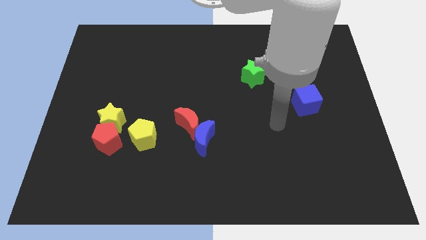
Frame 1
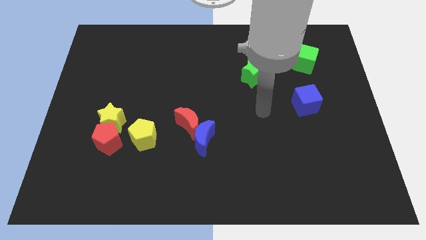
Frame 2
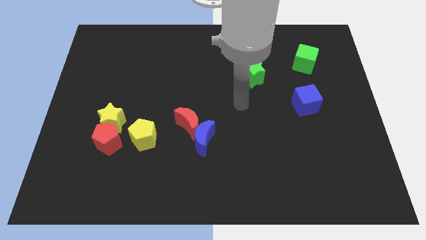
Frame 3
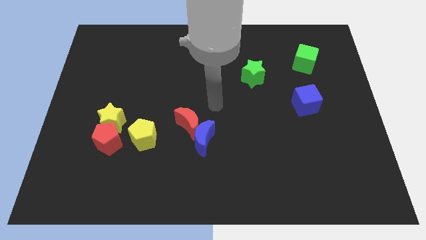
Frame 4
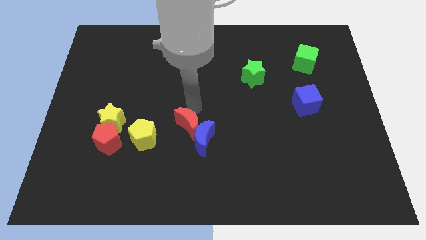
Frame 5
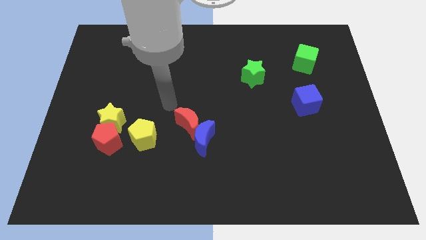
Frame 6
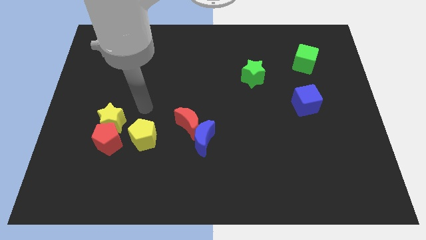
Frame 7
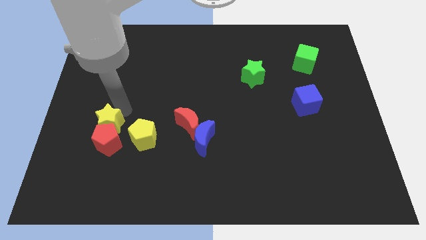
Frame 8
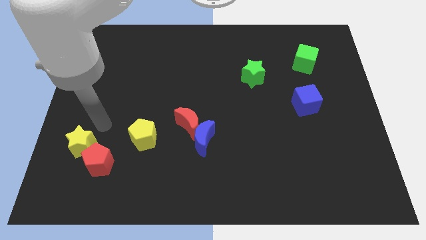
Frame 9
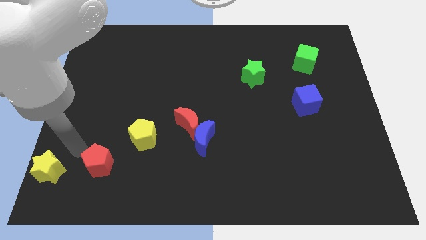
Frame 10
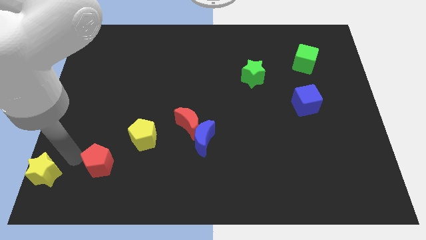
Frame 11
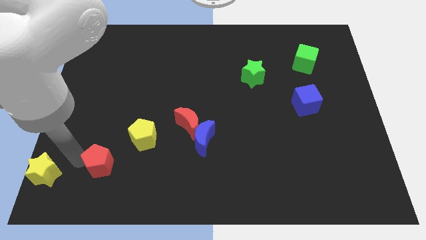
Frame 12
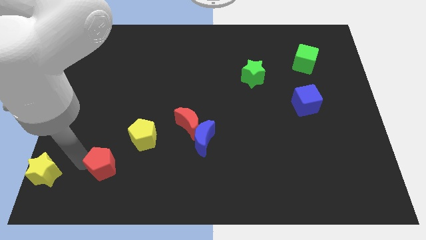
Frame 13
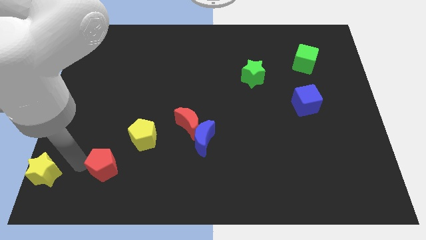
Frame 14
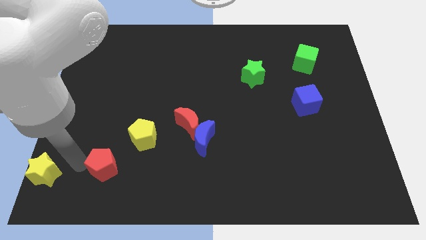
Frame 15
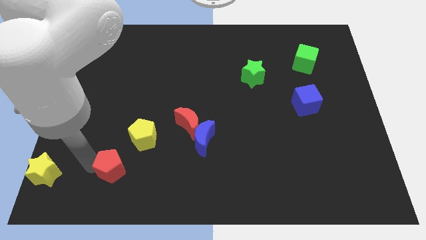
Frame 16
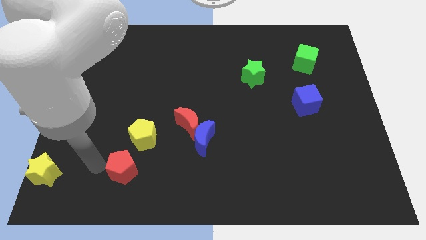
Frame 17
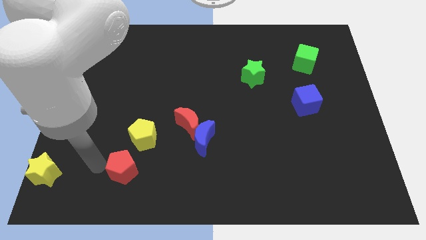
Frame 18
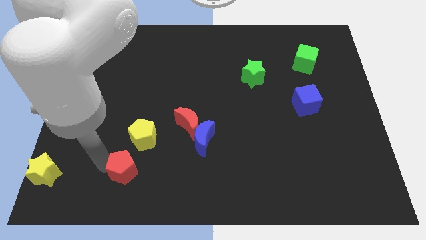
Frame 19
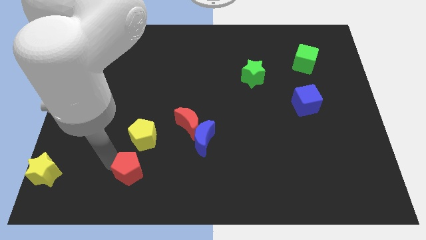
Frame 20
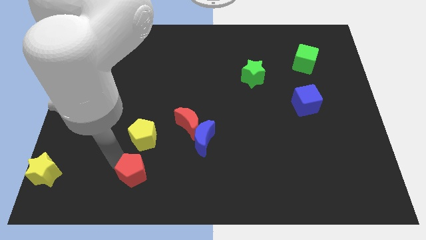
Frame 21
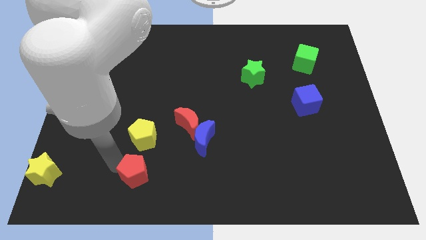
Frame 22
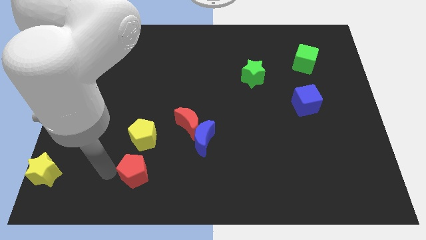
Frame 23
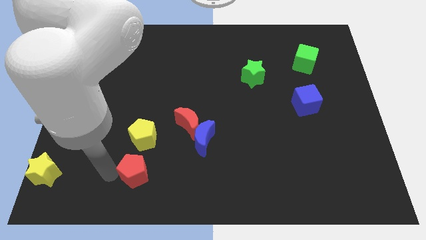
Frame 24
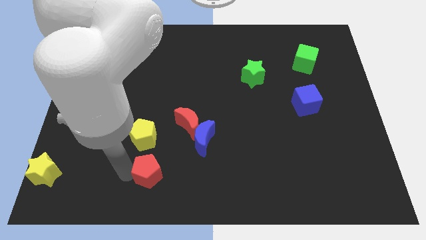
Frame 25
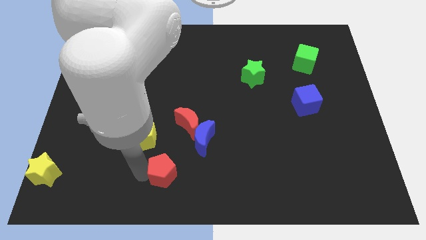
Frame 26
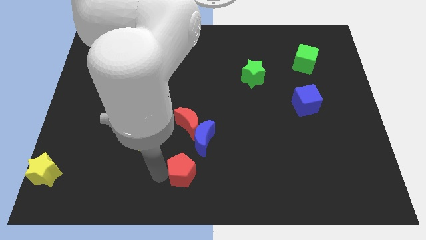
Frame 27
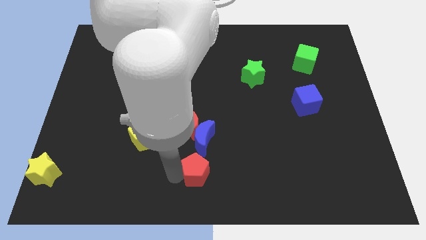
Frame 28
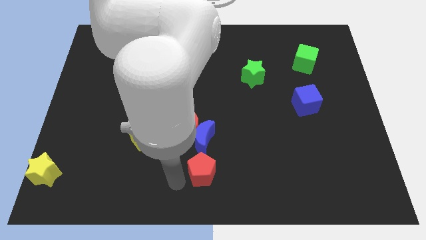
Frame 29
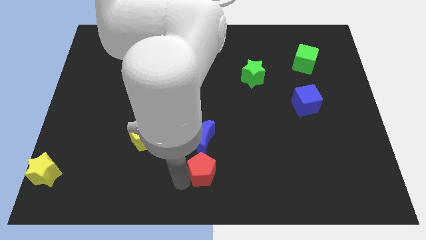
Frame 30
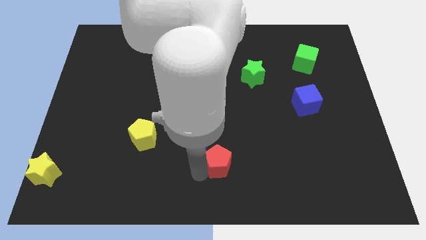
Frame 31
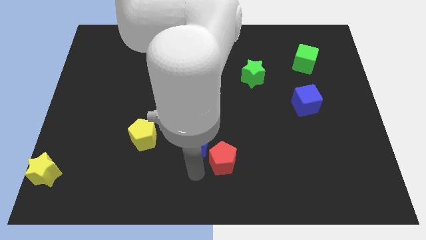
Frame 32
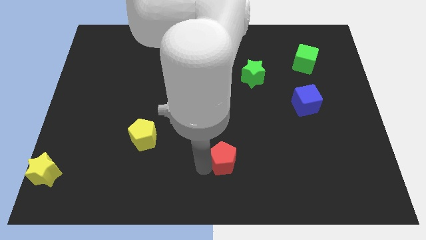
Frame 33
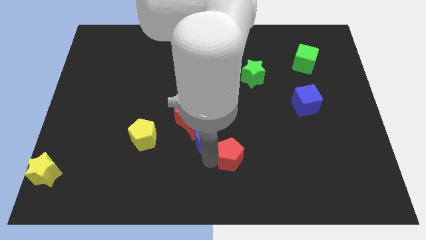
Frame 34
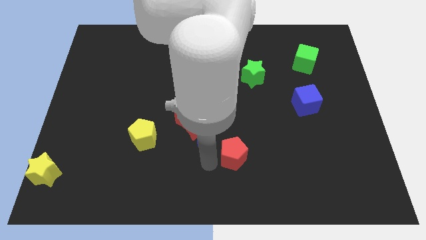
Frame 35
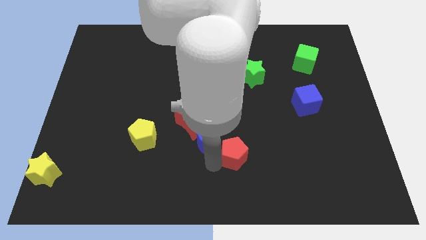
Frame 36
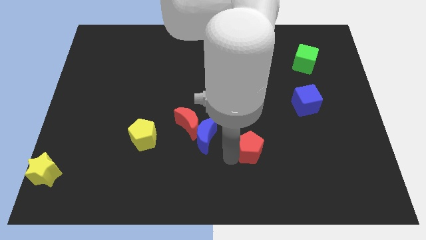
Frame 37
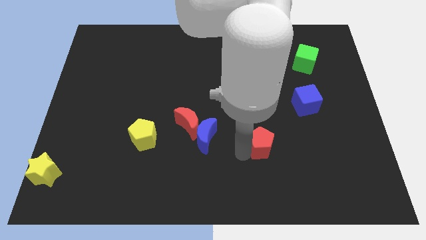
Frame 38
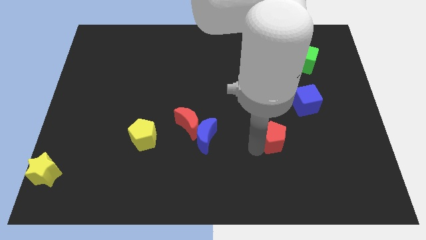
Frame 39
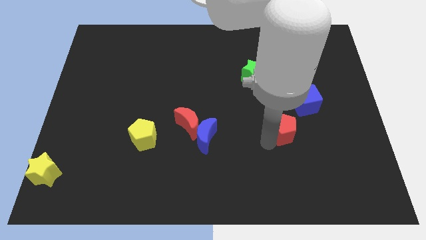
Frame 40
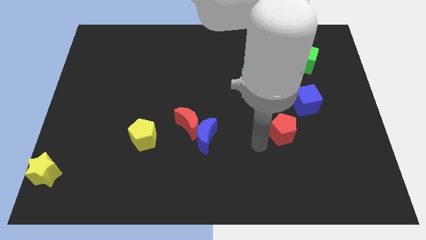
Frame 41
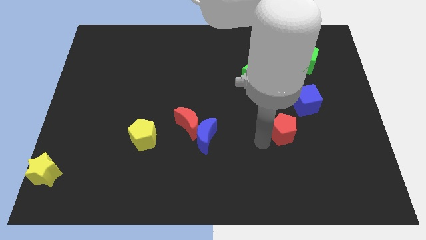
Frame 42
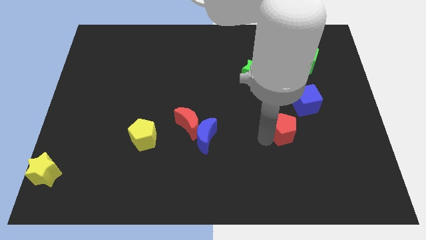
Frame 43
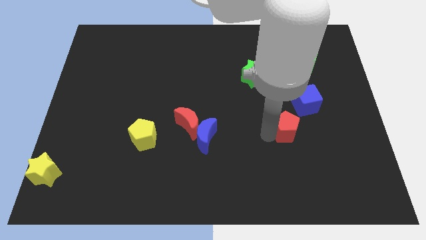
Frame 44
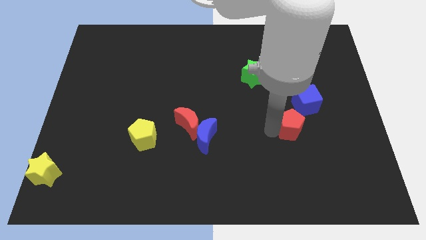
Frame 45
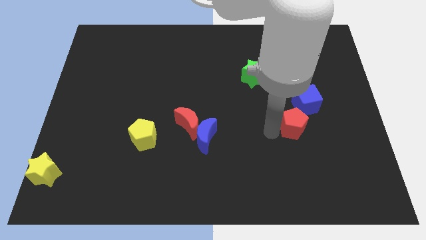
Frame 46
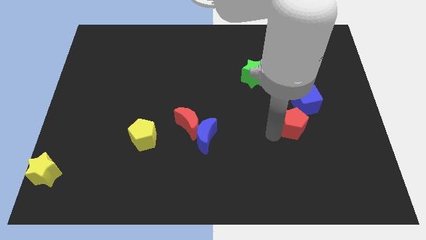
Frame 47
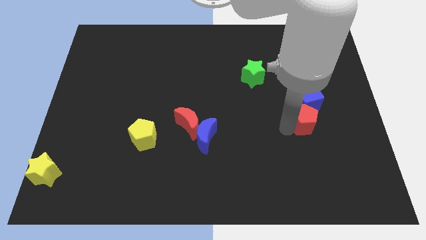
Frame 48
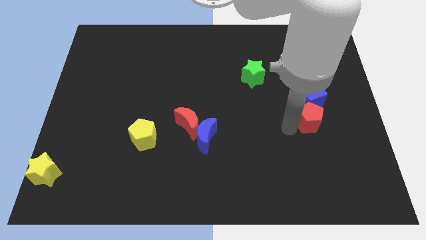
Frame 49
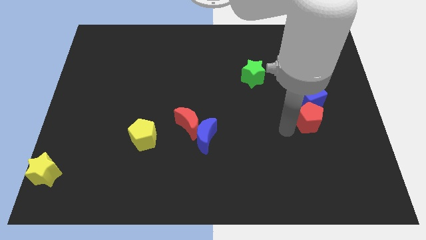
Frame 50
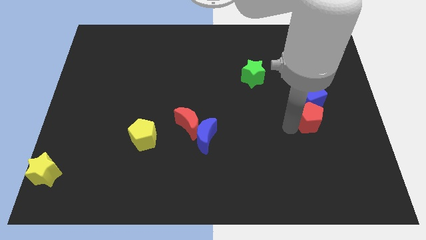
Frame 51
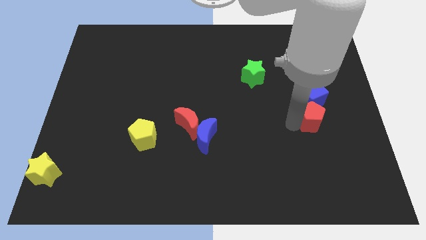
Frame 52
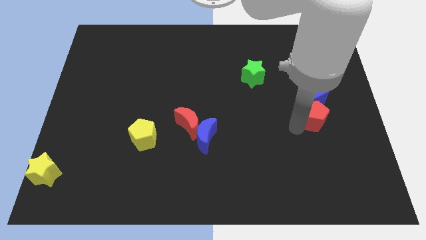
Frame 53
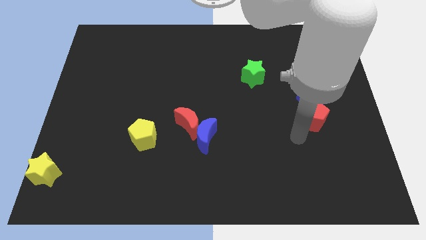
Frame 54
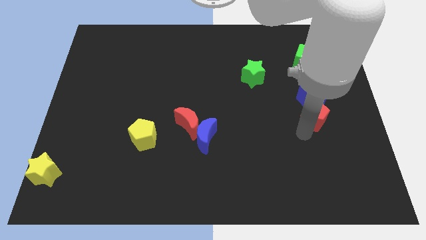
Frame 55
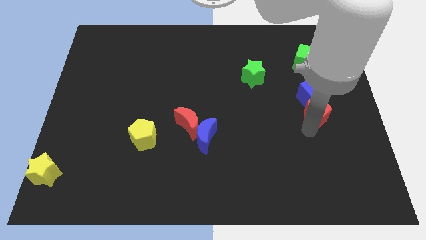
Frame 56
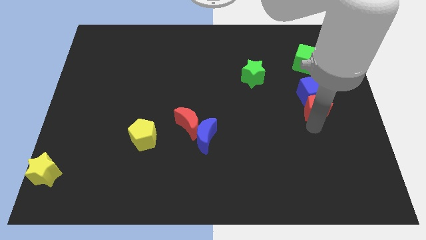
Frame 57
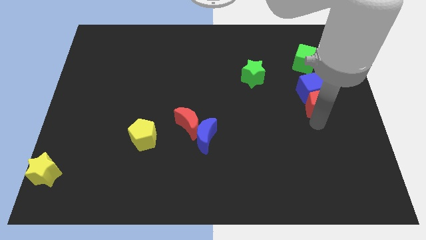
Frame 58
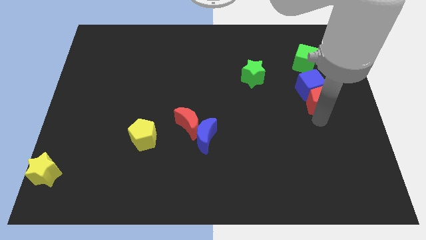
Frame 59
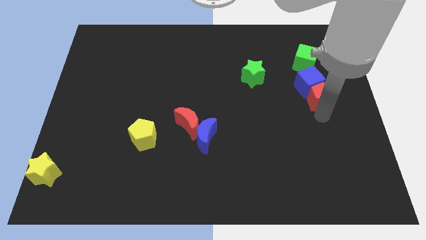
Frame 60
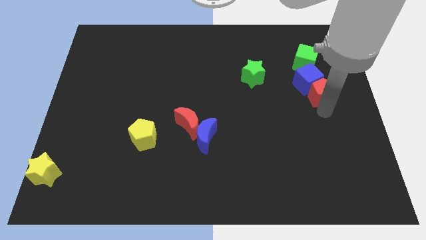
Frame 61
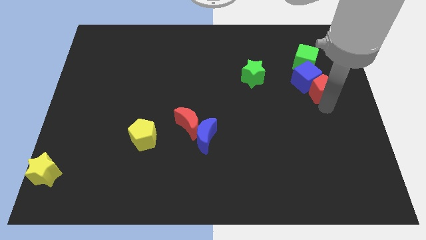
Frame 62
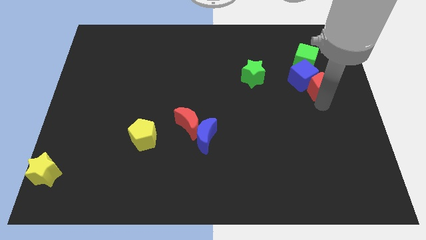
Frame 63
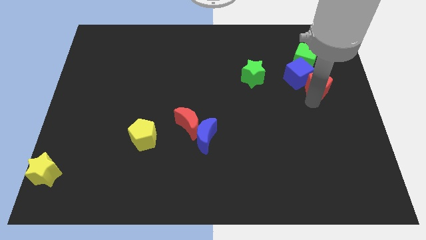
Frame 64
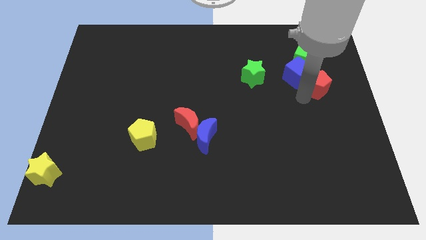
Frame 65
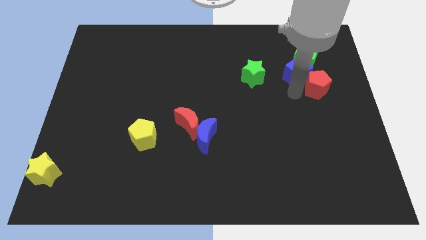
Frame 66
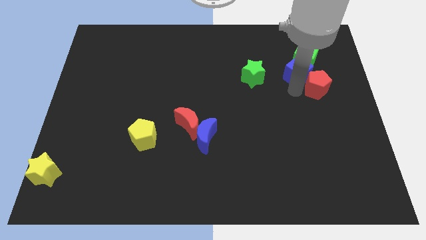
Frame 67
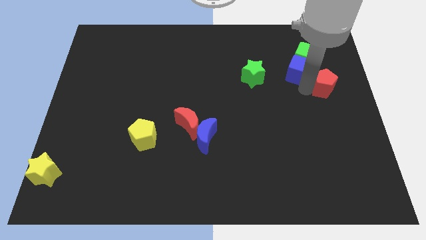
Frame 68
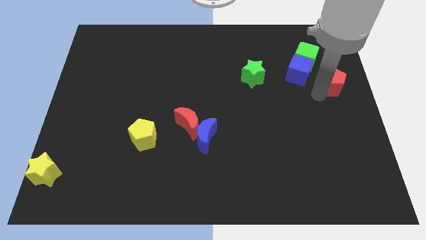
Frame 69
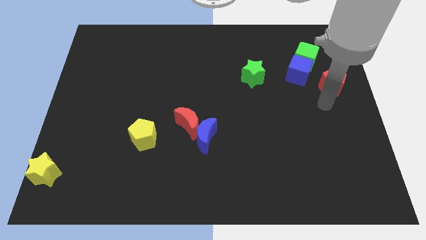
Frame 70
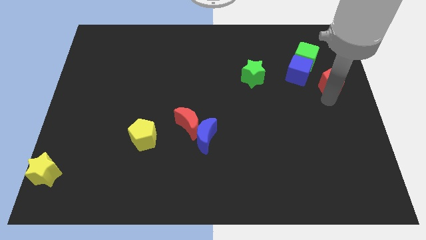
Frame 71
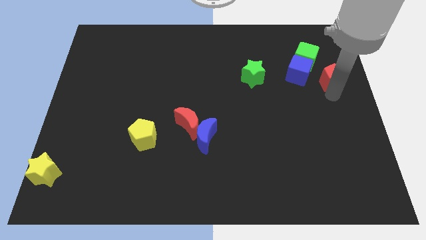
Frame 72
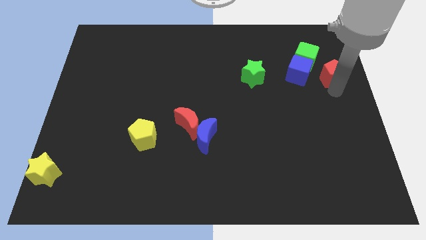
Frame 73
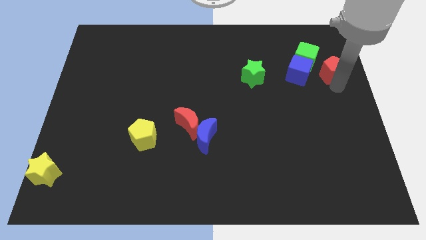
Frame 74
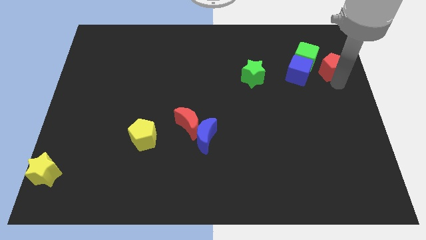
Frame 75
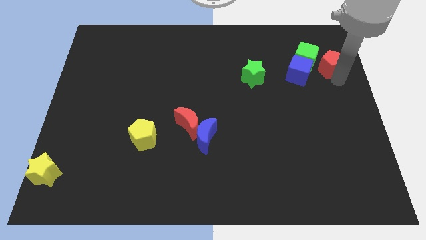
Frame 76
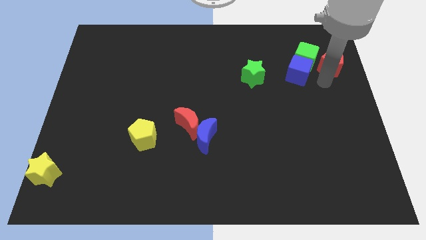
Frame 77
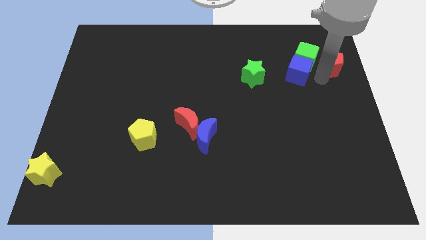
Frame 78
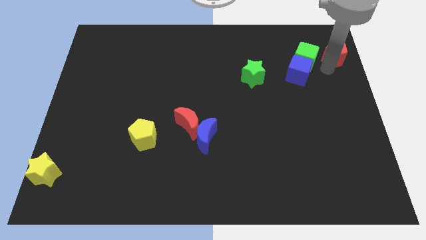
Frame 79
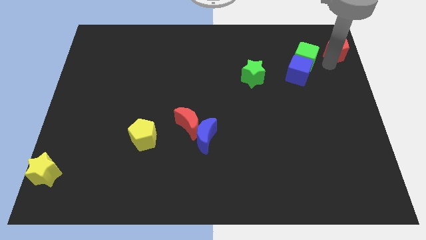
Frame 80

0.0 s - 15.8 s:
move the red pentagon to the upper right corner
